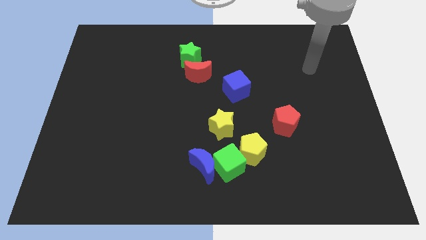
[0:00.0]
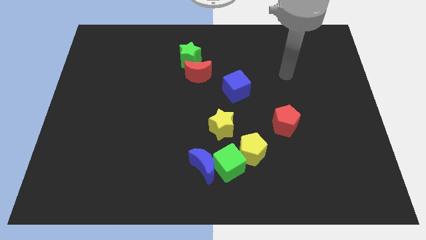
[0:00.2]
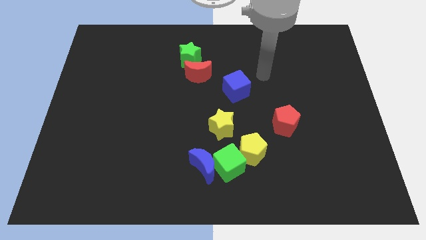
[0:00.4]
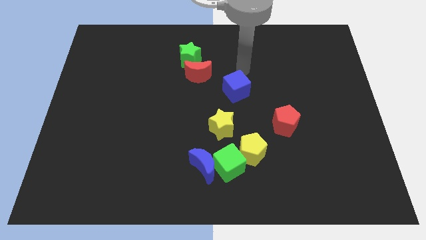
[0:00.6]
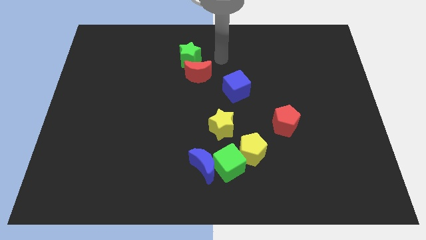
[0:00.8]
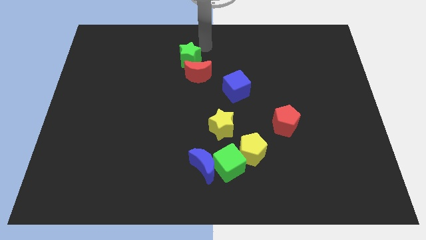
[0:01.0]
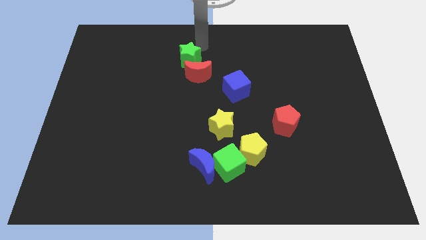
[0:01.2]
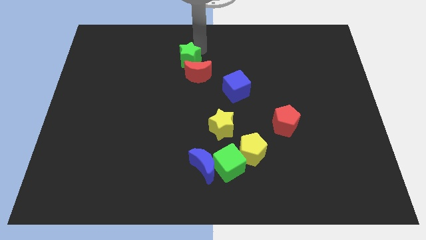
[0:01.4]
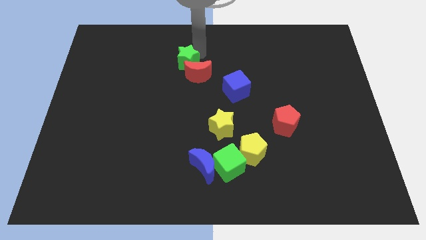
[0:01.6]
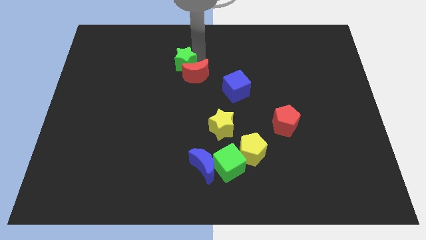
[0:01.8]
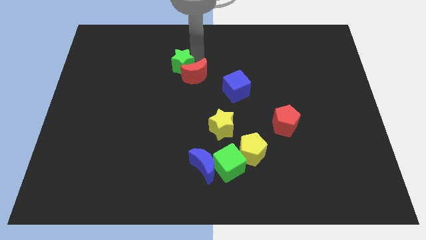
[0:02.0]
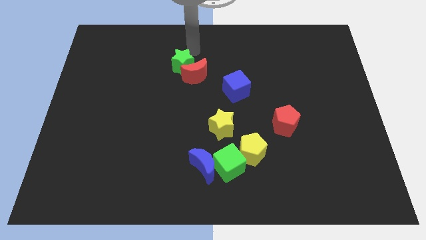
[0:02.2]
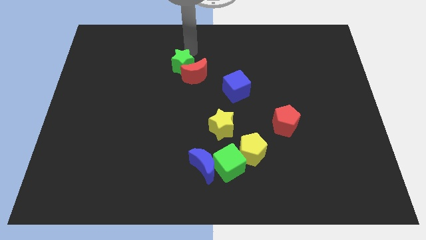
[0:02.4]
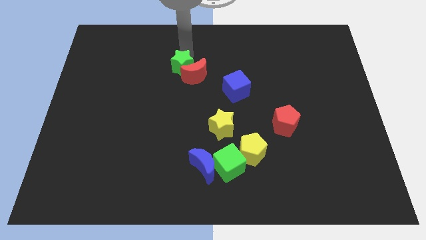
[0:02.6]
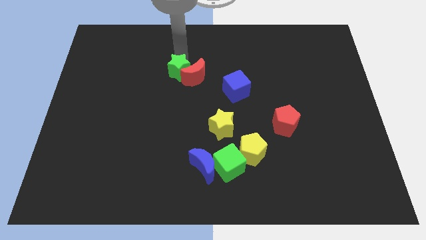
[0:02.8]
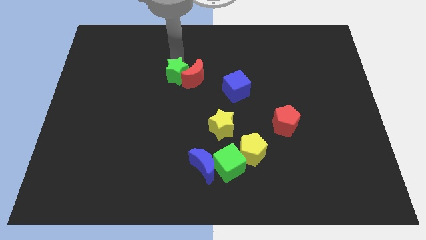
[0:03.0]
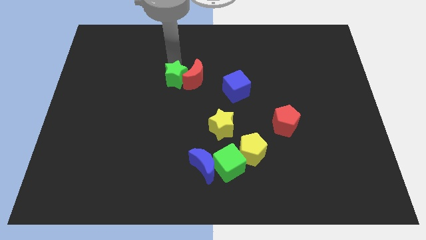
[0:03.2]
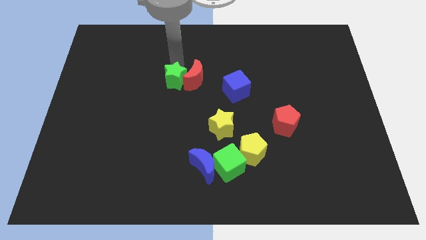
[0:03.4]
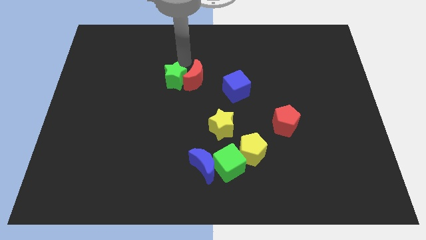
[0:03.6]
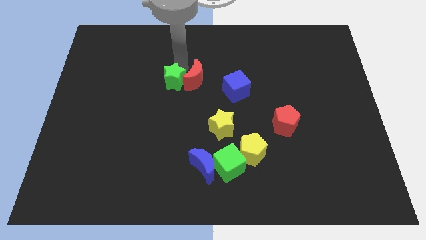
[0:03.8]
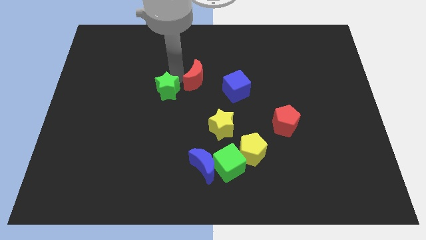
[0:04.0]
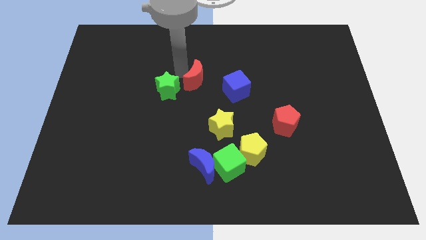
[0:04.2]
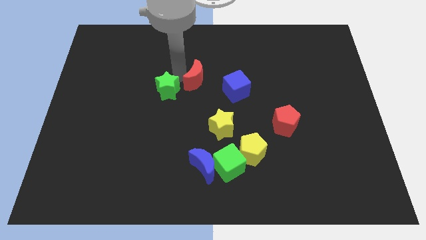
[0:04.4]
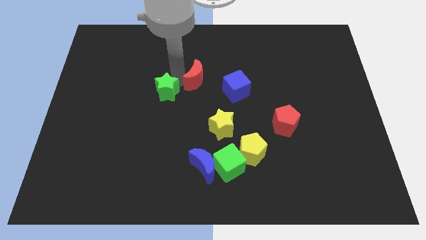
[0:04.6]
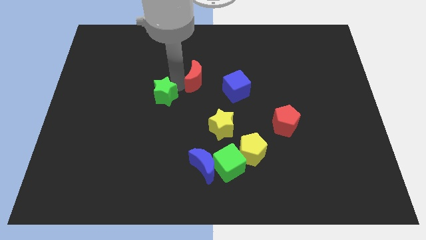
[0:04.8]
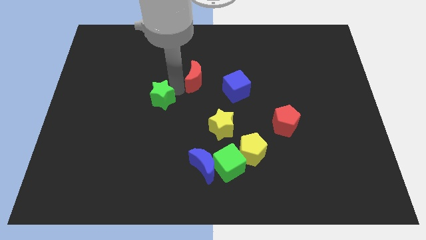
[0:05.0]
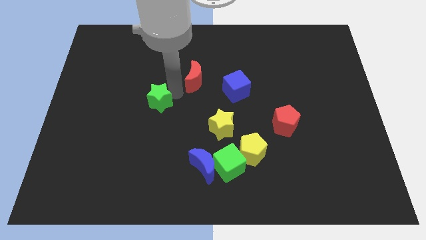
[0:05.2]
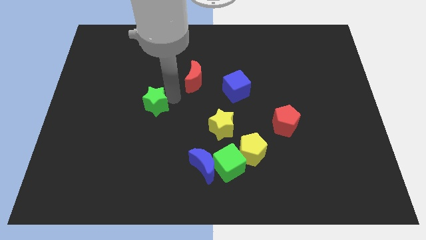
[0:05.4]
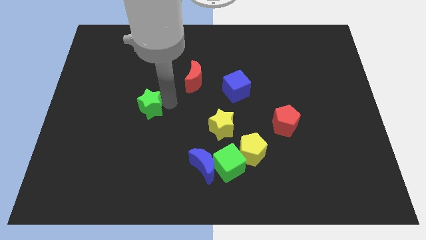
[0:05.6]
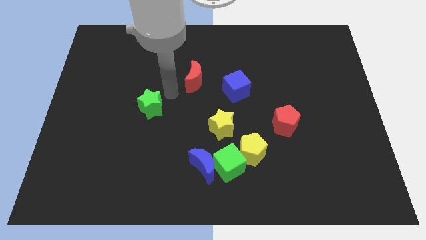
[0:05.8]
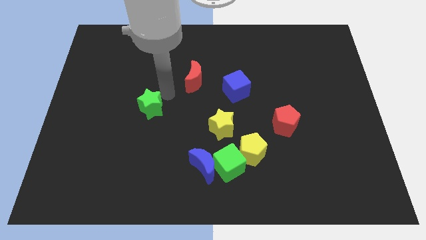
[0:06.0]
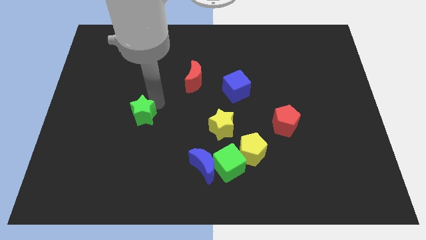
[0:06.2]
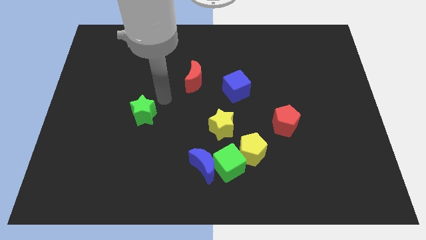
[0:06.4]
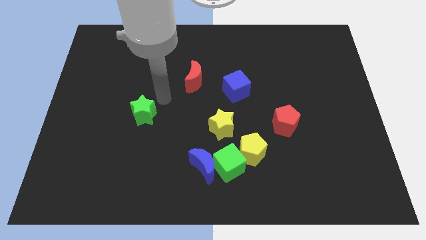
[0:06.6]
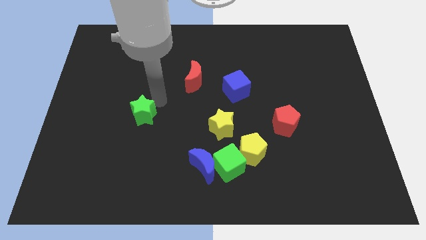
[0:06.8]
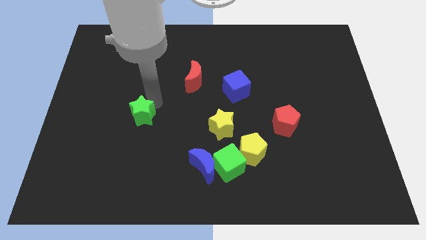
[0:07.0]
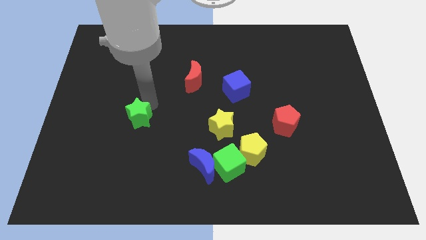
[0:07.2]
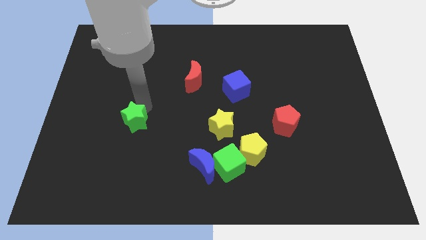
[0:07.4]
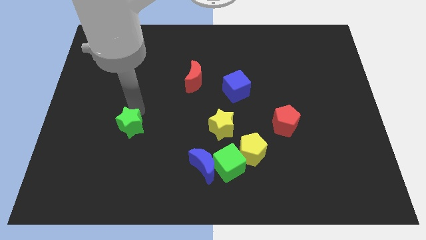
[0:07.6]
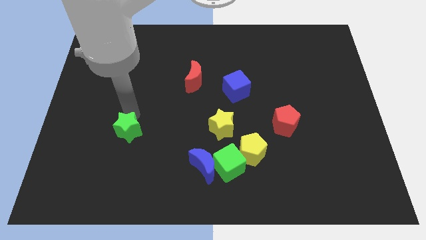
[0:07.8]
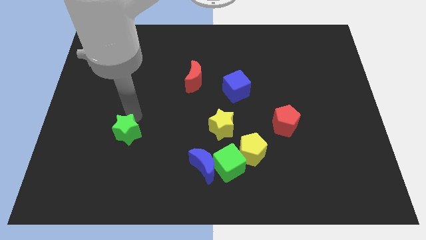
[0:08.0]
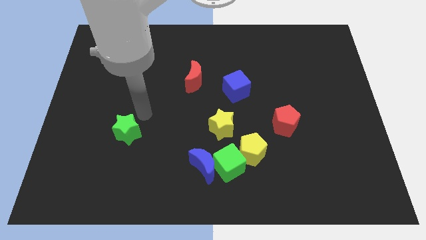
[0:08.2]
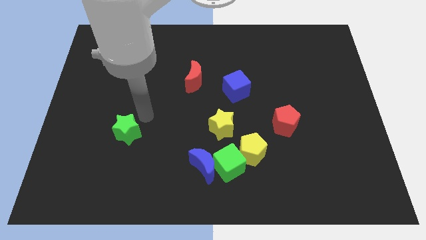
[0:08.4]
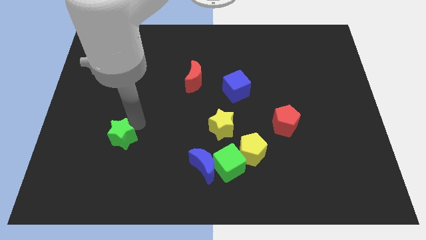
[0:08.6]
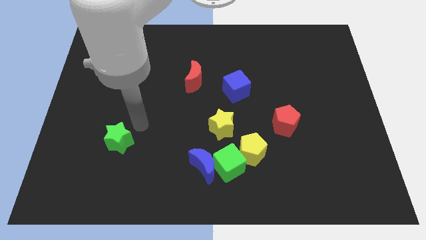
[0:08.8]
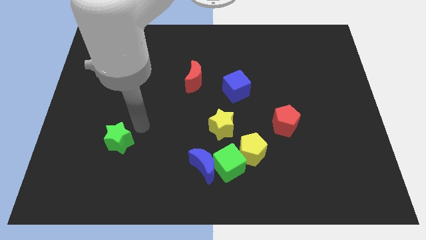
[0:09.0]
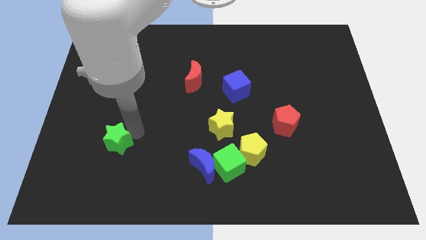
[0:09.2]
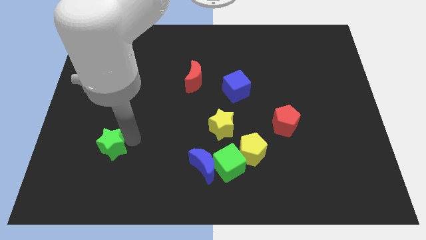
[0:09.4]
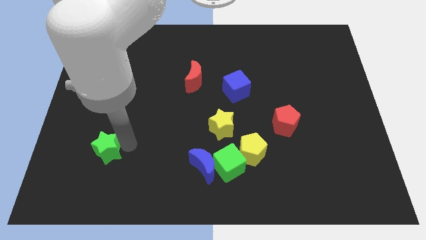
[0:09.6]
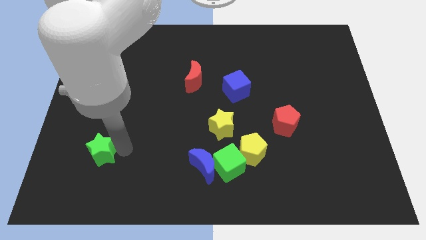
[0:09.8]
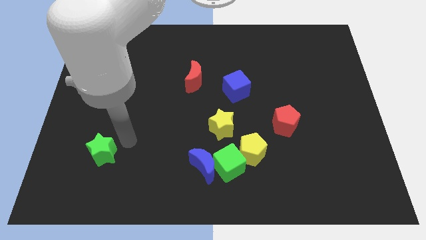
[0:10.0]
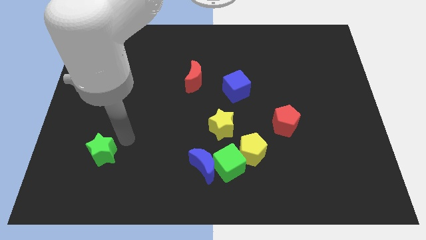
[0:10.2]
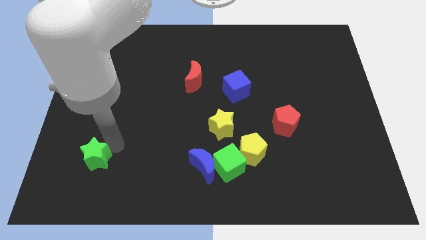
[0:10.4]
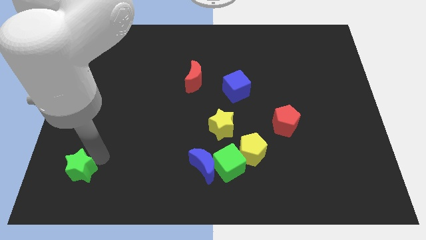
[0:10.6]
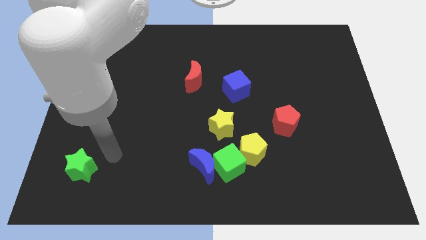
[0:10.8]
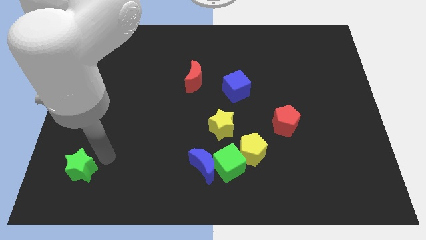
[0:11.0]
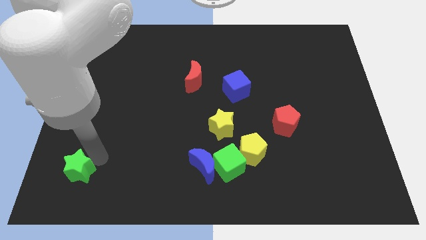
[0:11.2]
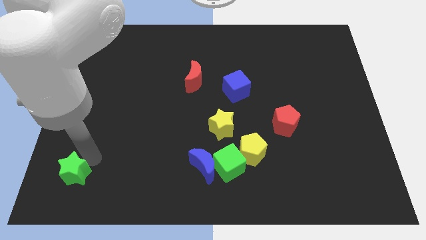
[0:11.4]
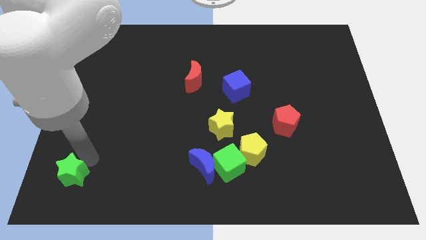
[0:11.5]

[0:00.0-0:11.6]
move the green star to the bottom left corner

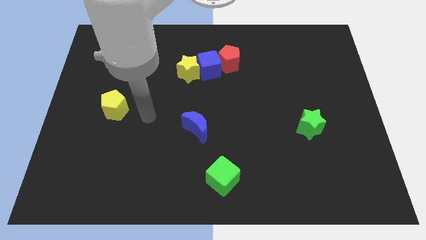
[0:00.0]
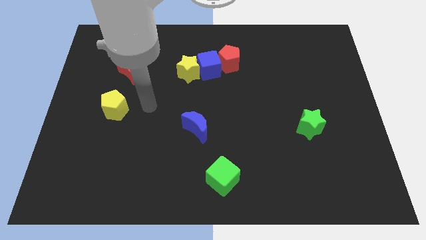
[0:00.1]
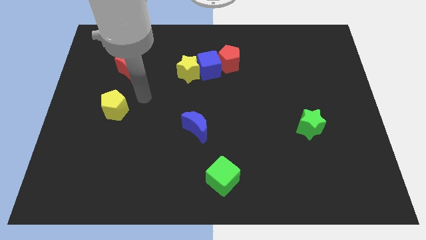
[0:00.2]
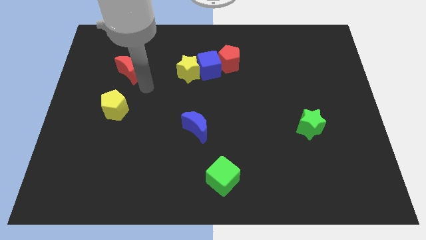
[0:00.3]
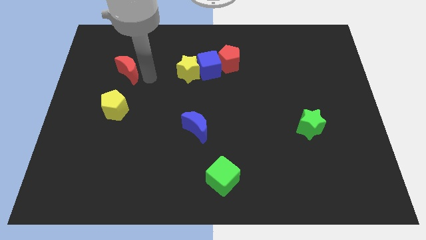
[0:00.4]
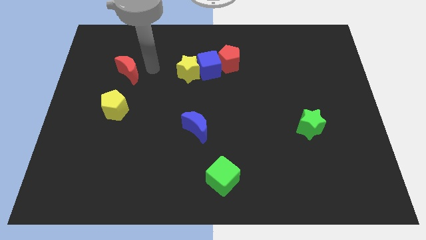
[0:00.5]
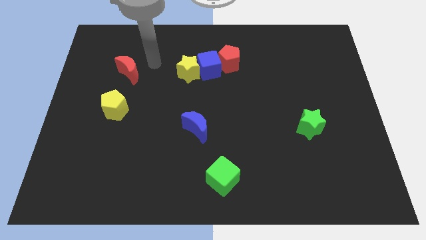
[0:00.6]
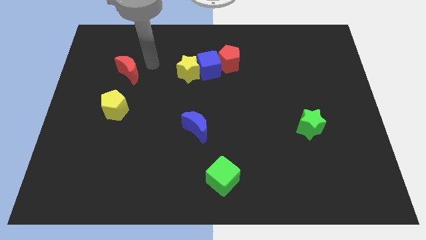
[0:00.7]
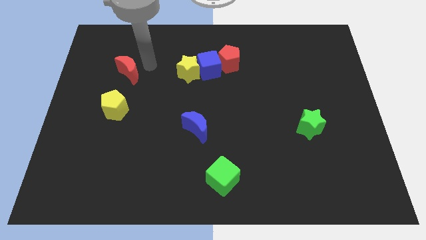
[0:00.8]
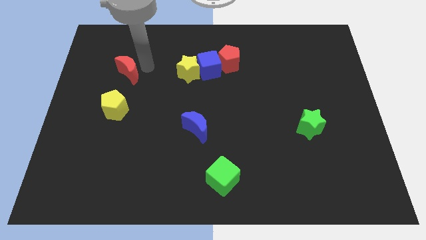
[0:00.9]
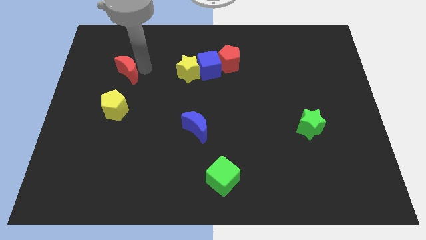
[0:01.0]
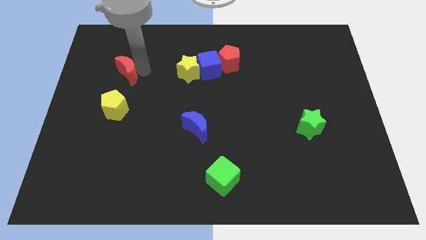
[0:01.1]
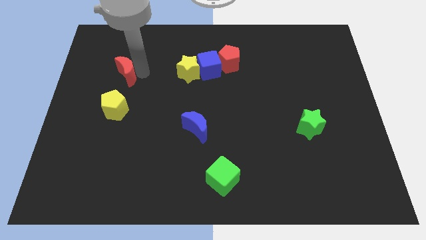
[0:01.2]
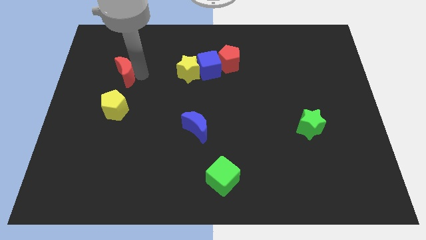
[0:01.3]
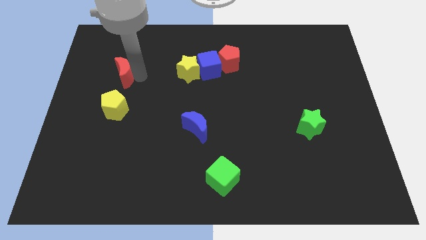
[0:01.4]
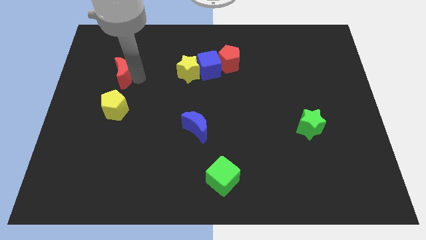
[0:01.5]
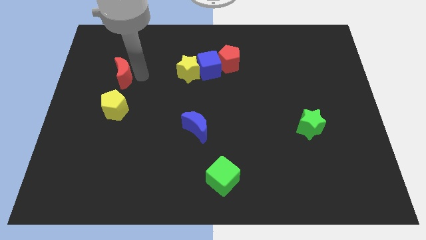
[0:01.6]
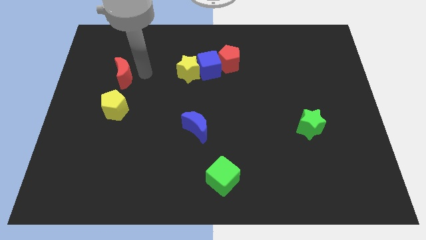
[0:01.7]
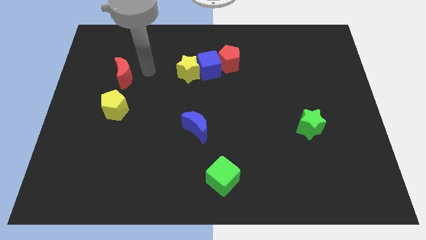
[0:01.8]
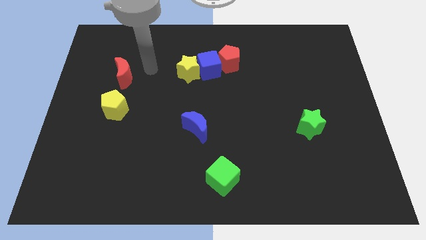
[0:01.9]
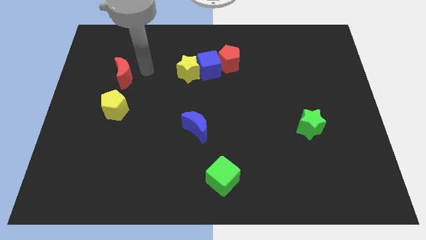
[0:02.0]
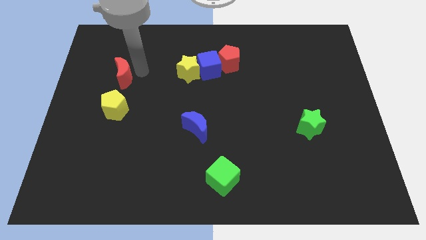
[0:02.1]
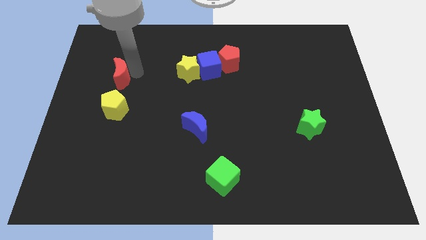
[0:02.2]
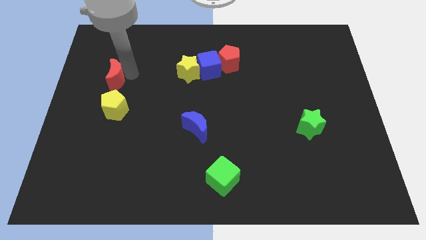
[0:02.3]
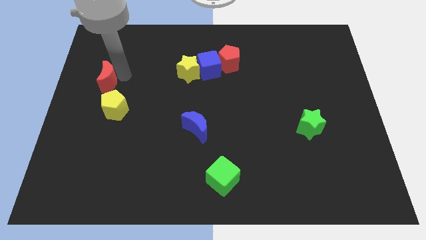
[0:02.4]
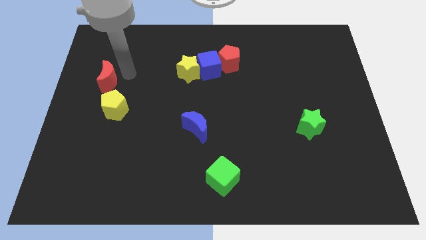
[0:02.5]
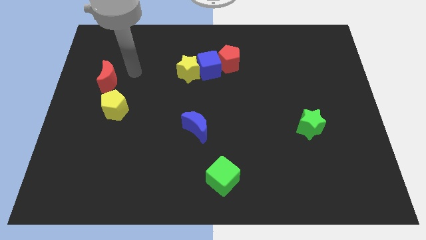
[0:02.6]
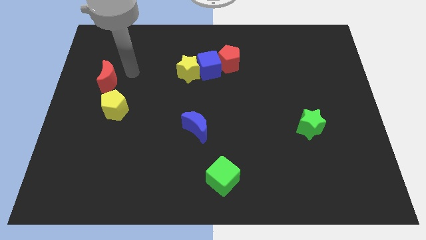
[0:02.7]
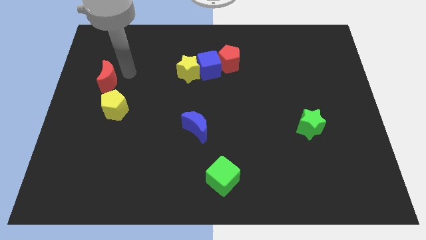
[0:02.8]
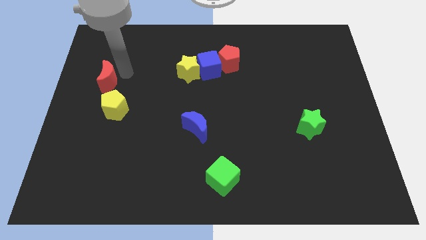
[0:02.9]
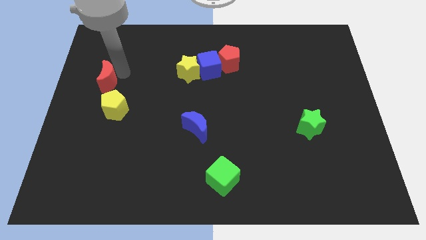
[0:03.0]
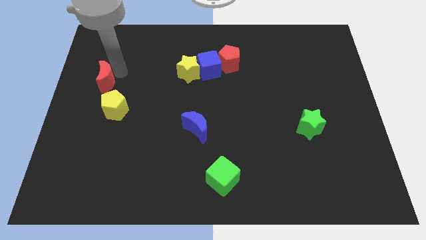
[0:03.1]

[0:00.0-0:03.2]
put the red moon to the center left
